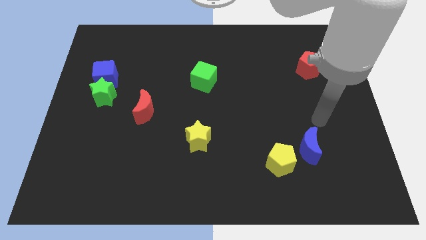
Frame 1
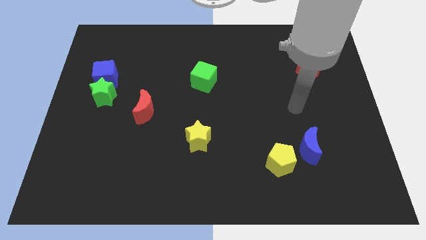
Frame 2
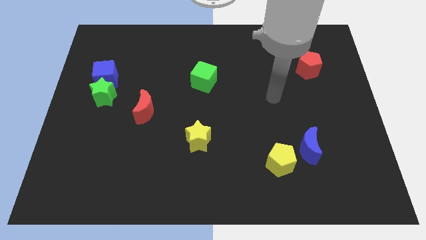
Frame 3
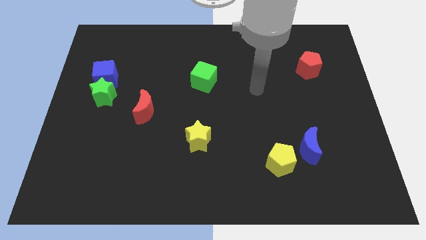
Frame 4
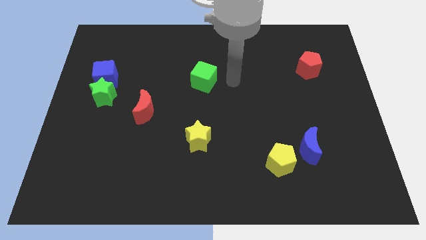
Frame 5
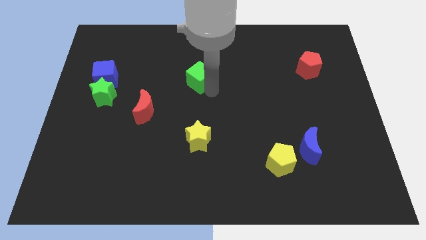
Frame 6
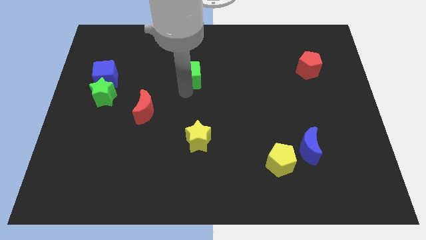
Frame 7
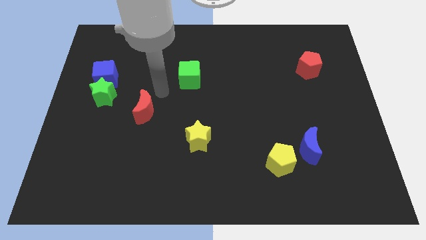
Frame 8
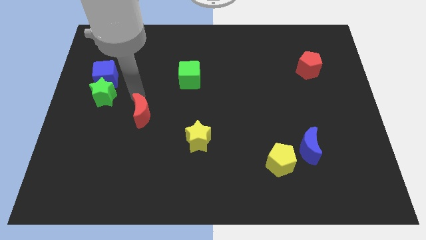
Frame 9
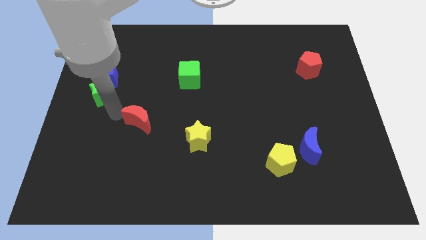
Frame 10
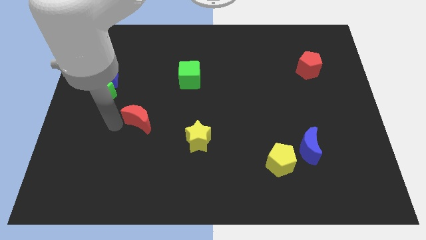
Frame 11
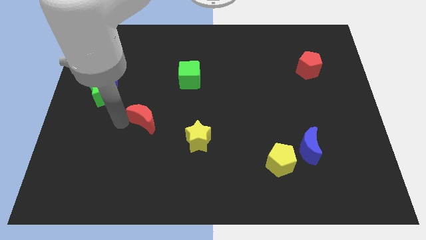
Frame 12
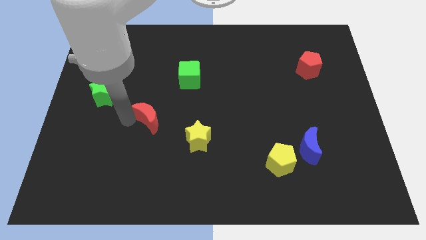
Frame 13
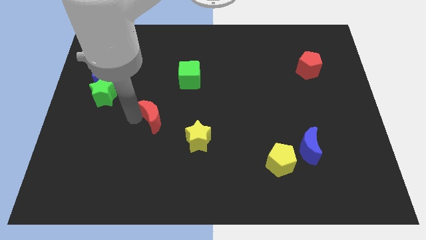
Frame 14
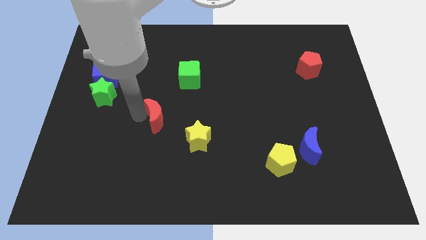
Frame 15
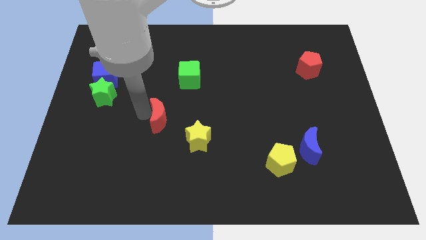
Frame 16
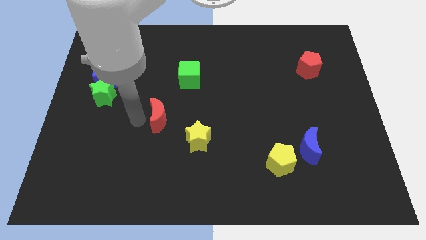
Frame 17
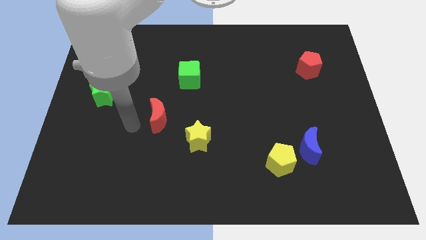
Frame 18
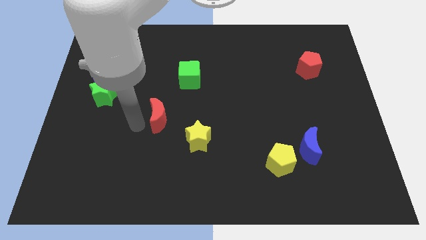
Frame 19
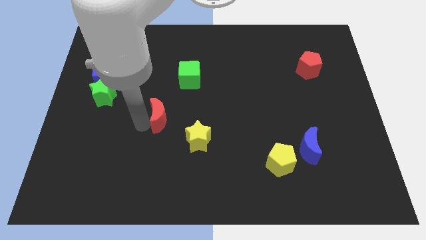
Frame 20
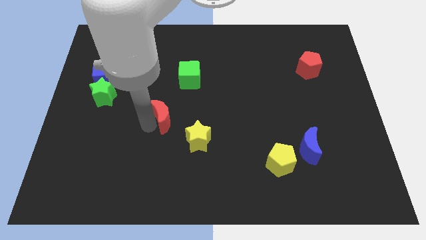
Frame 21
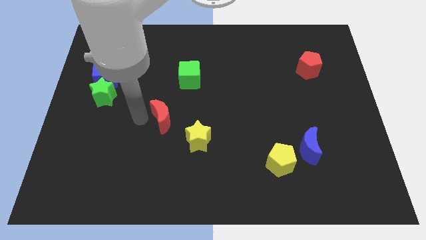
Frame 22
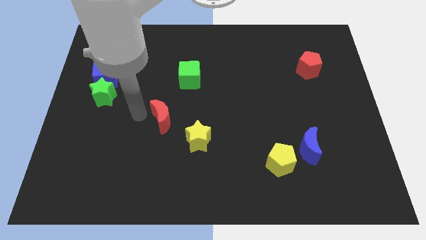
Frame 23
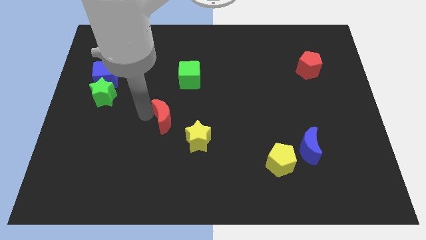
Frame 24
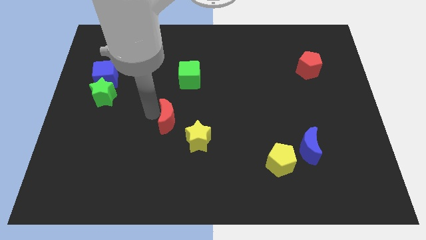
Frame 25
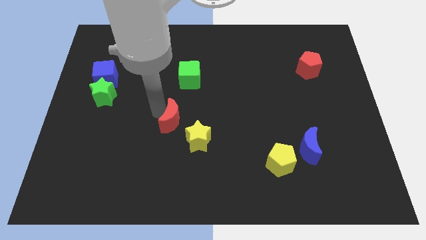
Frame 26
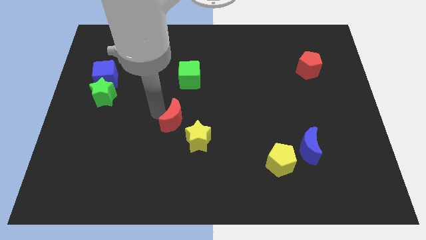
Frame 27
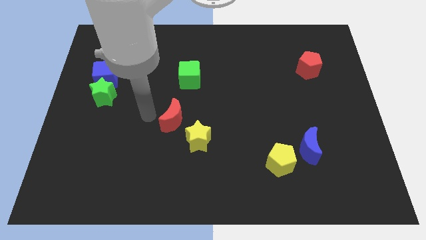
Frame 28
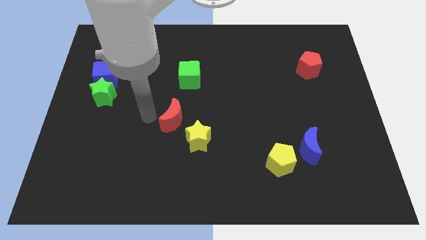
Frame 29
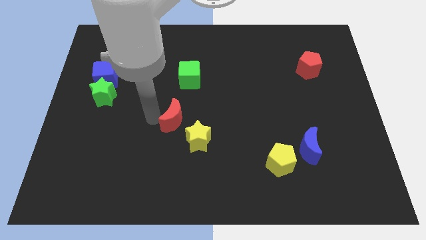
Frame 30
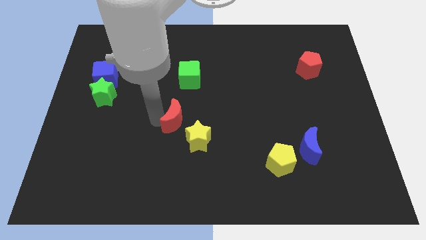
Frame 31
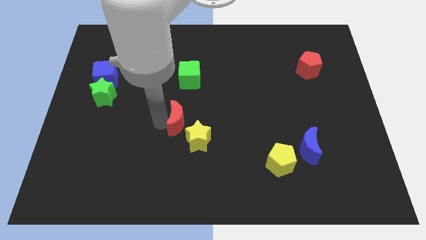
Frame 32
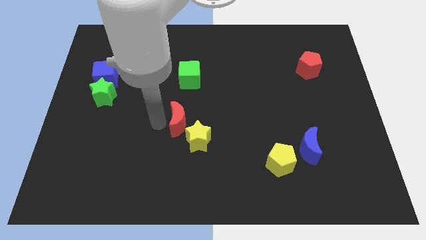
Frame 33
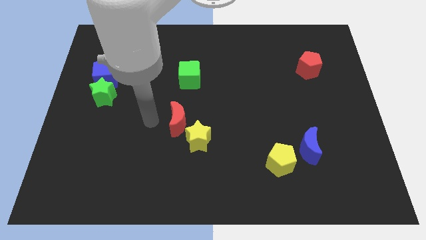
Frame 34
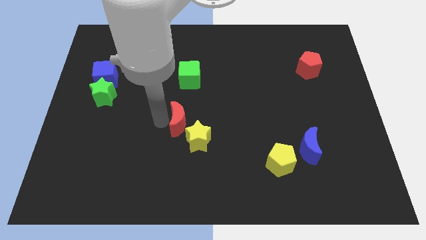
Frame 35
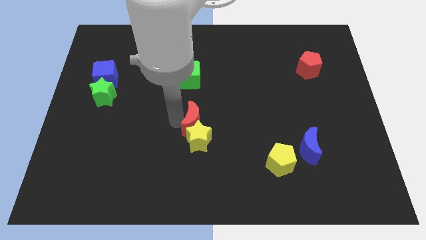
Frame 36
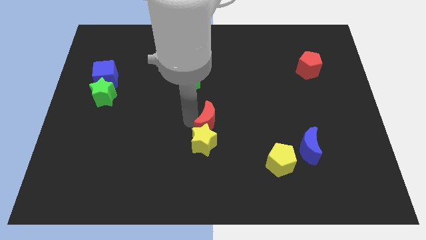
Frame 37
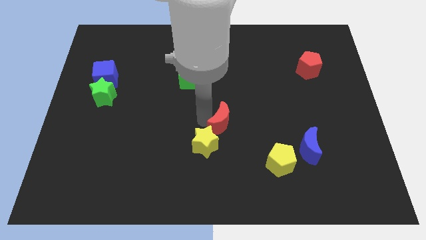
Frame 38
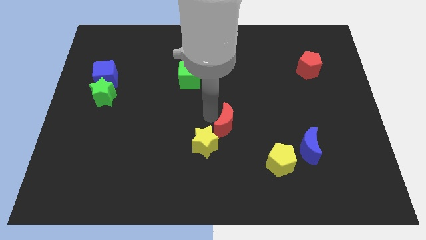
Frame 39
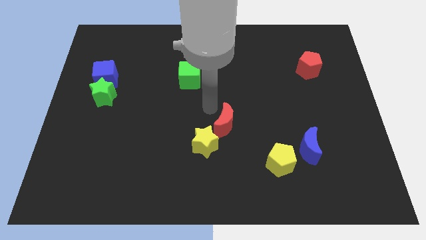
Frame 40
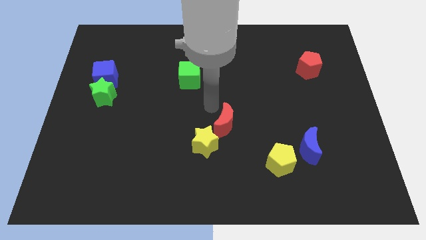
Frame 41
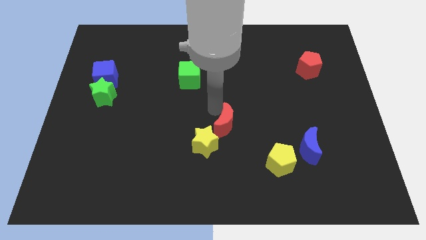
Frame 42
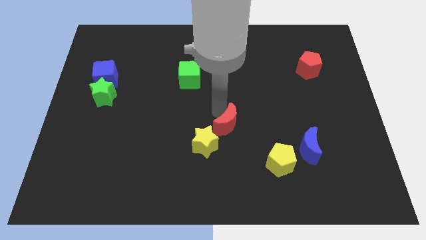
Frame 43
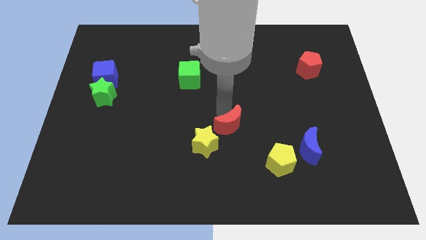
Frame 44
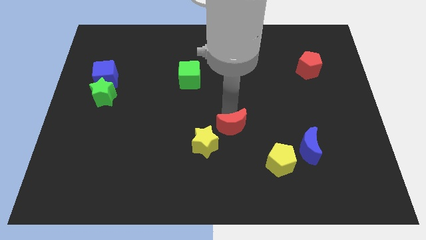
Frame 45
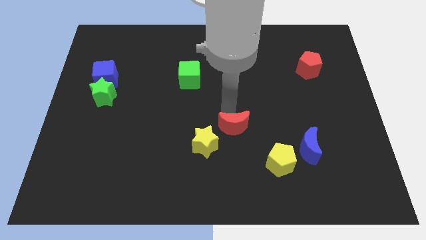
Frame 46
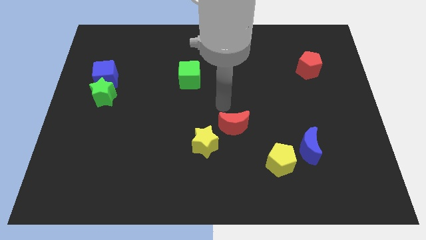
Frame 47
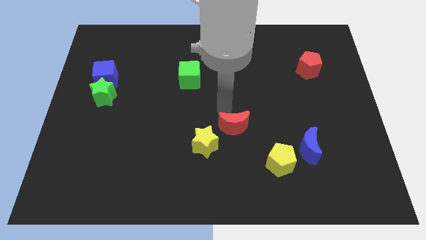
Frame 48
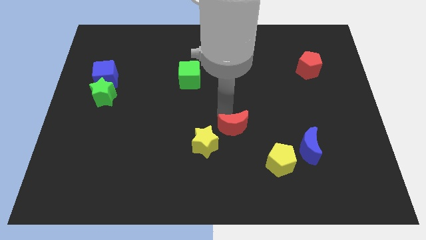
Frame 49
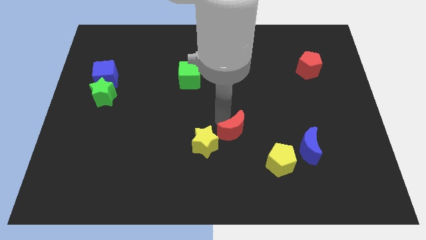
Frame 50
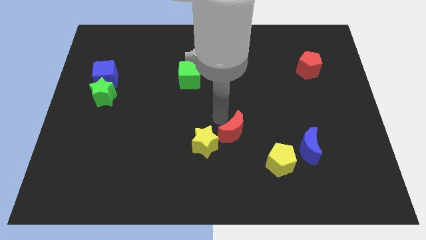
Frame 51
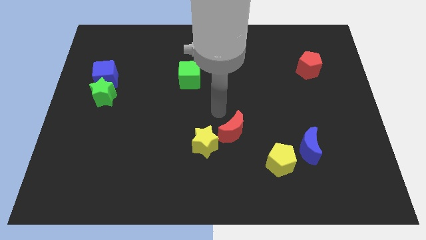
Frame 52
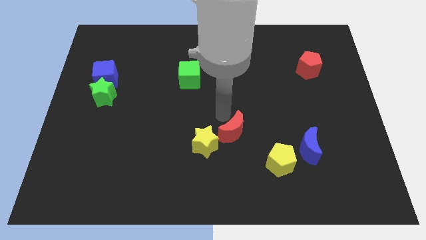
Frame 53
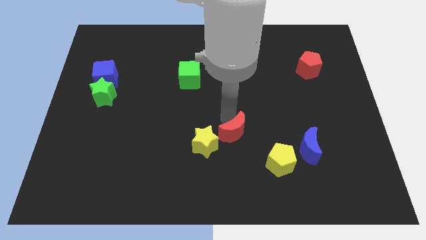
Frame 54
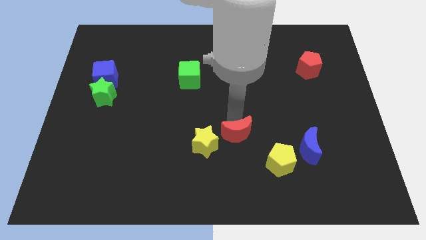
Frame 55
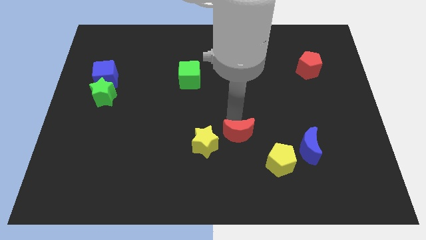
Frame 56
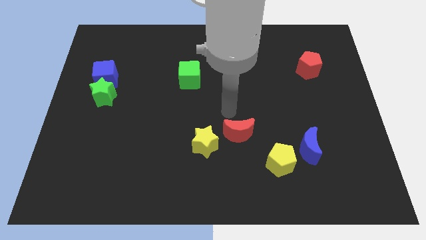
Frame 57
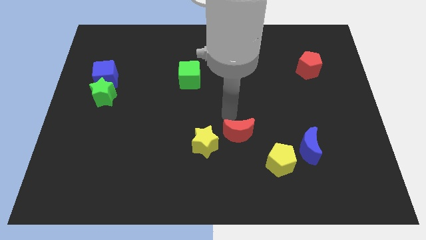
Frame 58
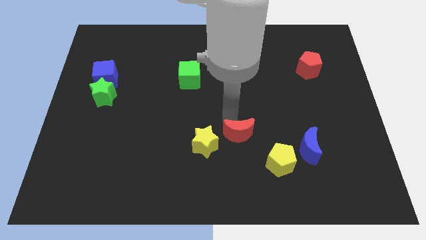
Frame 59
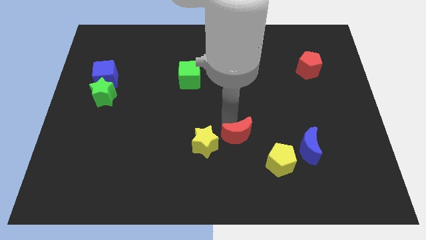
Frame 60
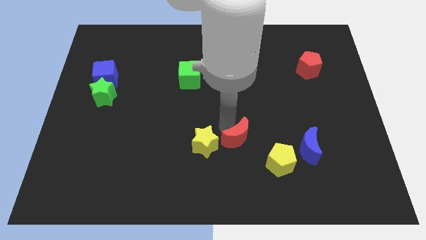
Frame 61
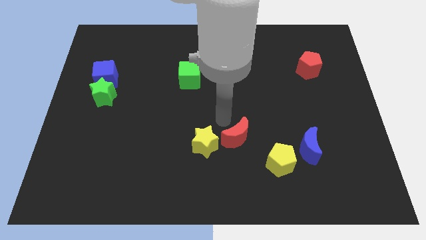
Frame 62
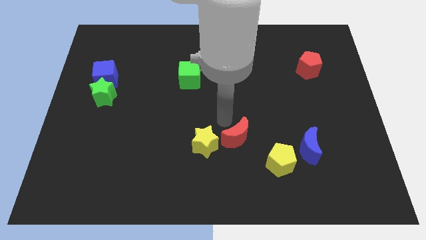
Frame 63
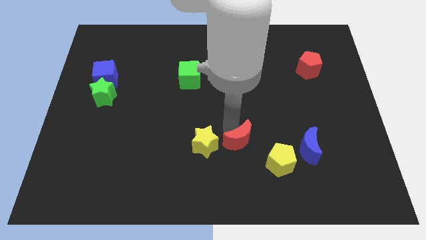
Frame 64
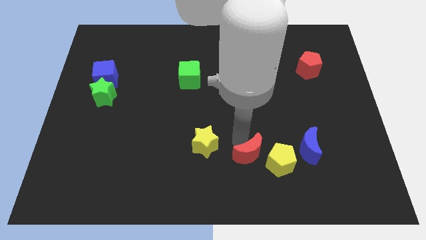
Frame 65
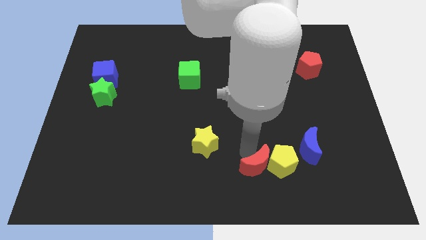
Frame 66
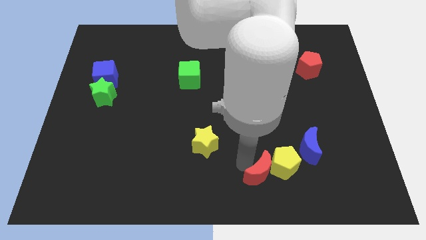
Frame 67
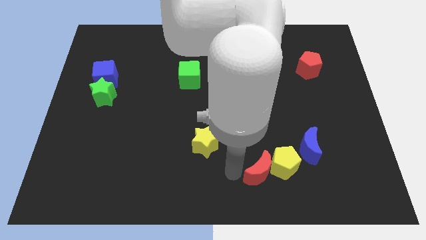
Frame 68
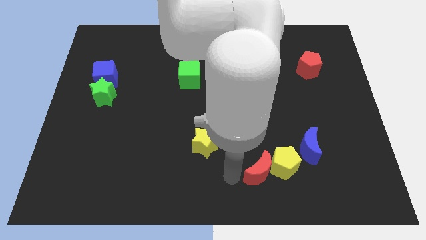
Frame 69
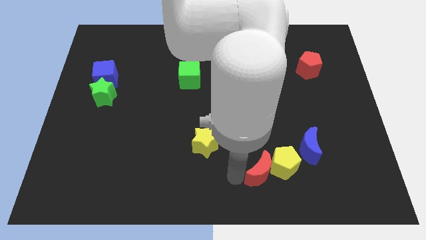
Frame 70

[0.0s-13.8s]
push the red moon diagonally down and to the left of the blue moon
